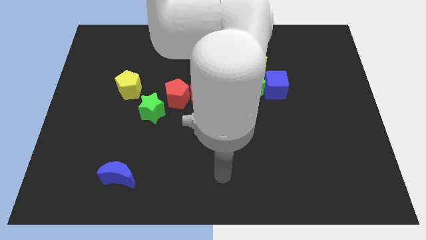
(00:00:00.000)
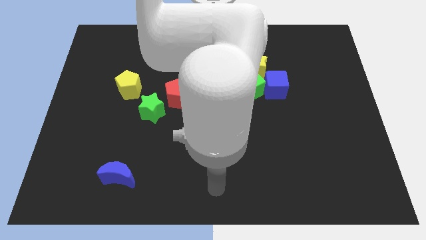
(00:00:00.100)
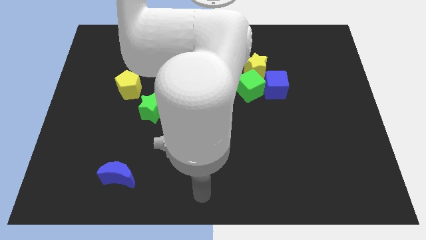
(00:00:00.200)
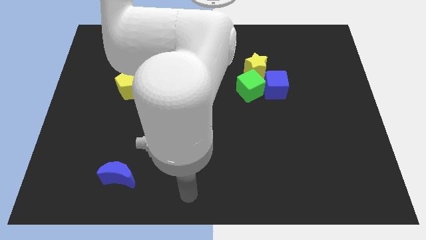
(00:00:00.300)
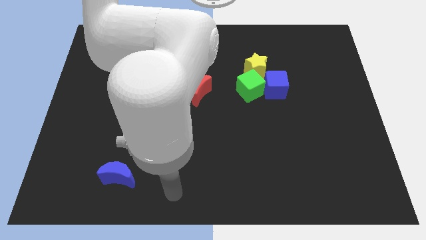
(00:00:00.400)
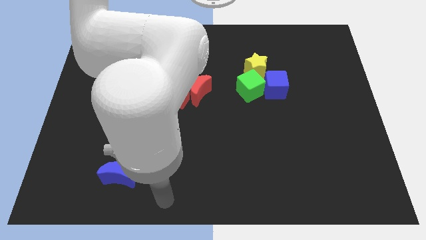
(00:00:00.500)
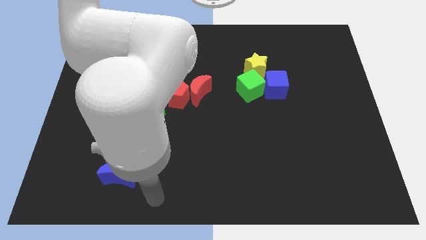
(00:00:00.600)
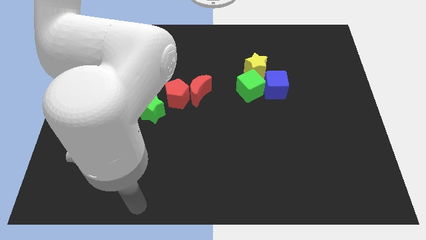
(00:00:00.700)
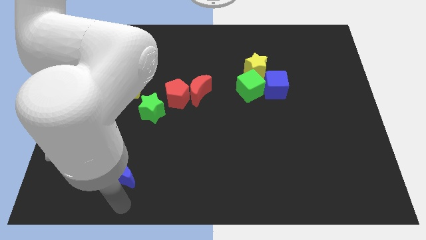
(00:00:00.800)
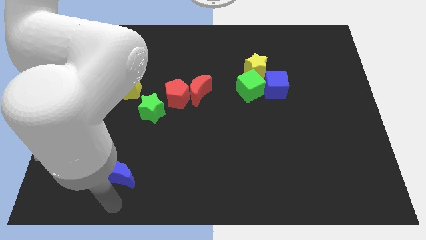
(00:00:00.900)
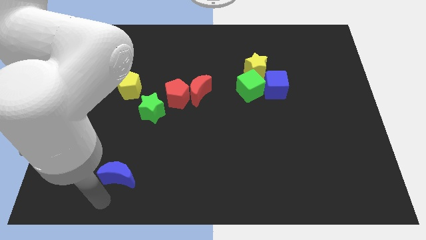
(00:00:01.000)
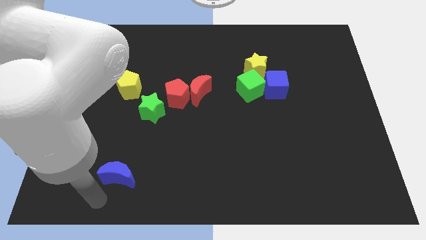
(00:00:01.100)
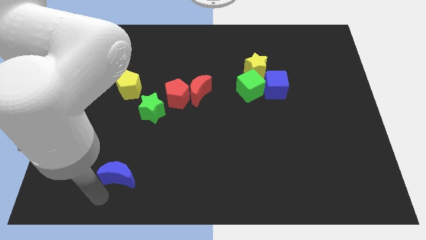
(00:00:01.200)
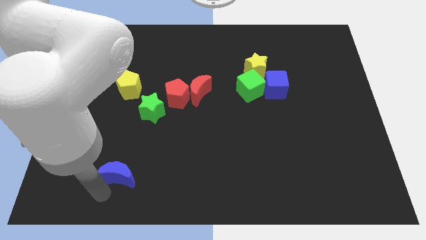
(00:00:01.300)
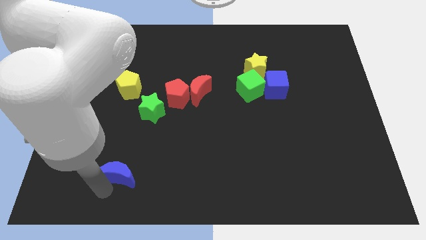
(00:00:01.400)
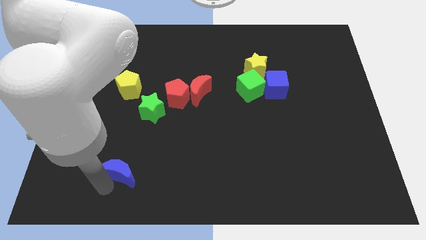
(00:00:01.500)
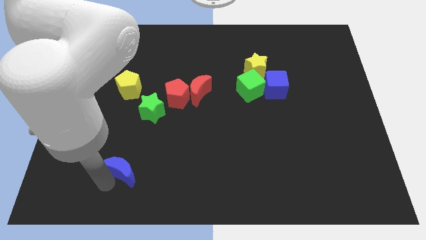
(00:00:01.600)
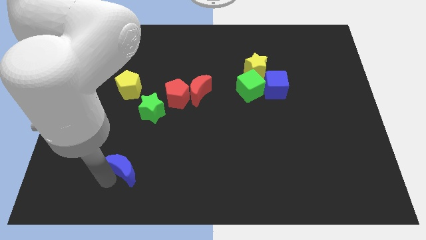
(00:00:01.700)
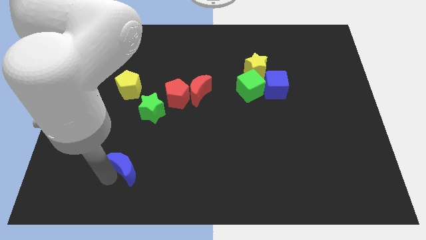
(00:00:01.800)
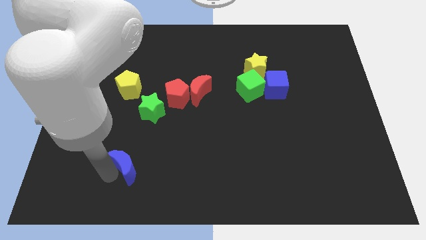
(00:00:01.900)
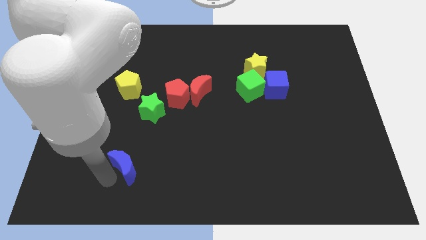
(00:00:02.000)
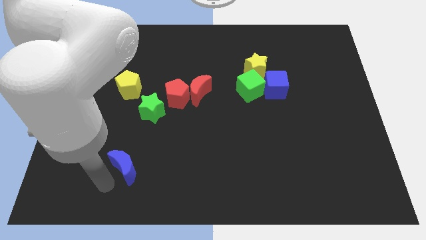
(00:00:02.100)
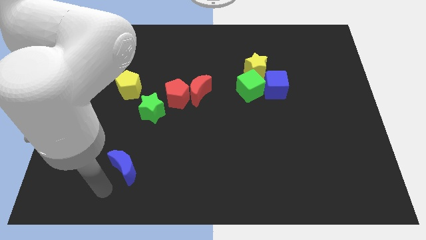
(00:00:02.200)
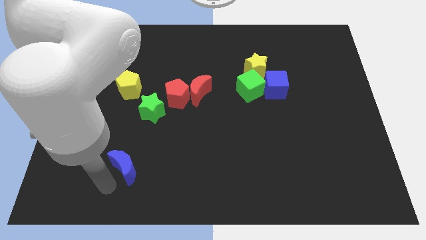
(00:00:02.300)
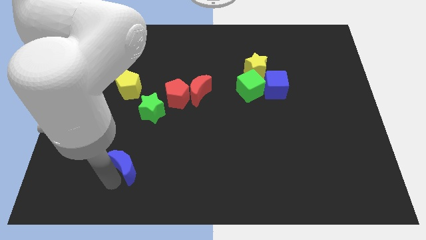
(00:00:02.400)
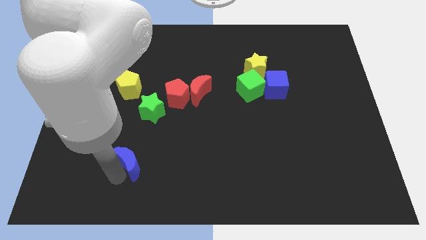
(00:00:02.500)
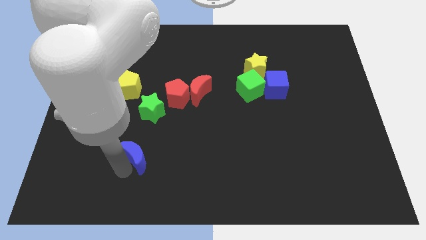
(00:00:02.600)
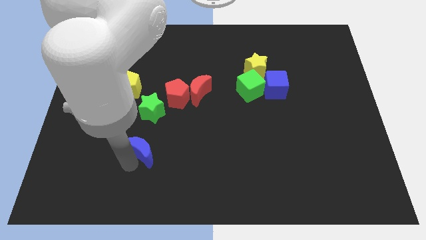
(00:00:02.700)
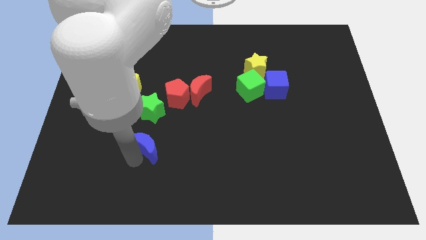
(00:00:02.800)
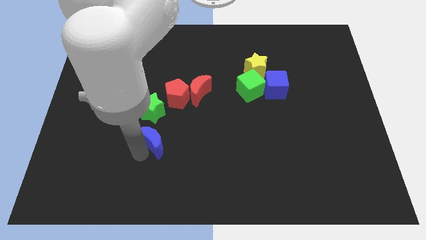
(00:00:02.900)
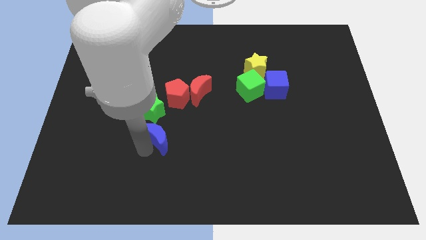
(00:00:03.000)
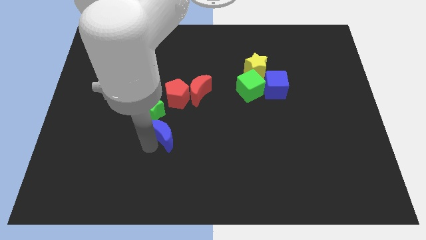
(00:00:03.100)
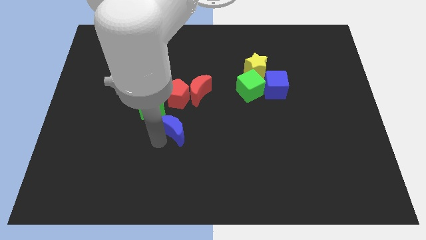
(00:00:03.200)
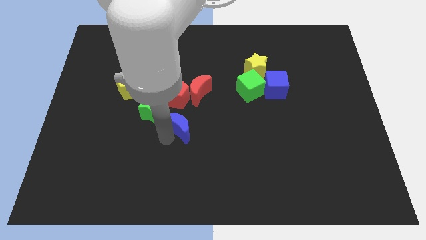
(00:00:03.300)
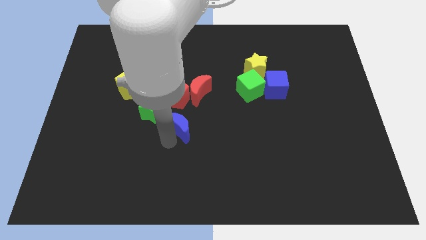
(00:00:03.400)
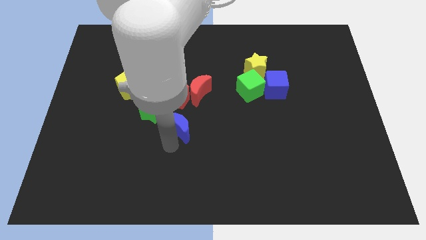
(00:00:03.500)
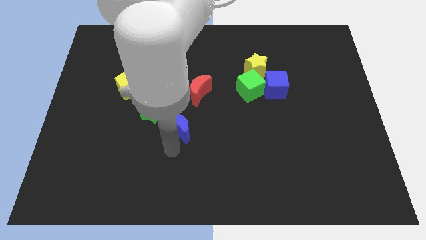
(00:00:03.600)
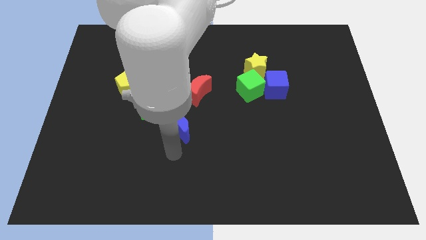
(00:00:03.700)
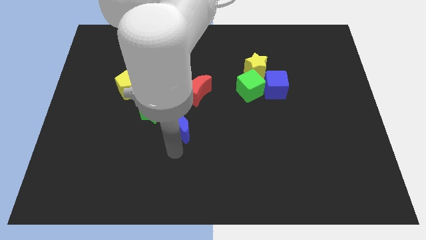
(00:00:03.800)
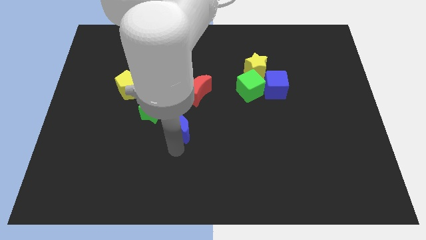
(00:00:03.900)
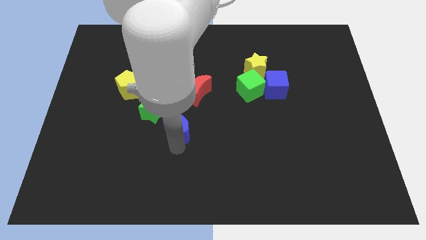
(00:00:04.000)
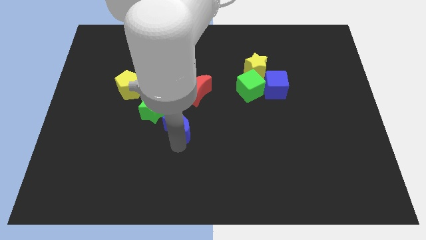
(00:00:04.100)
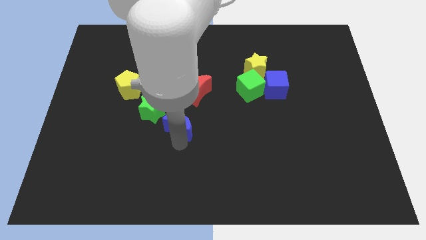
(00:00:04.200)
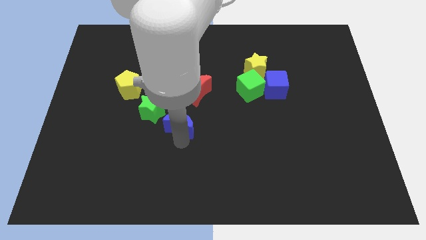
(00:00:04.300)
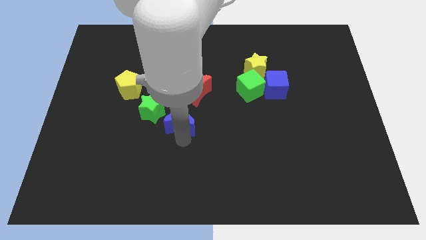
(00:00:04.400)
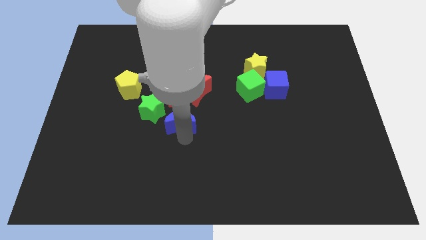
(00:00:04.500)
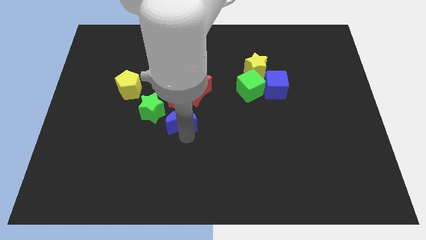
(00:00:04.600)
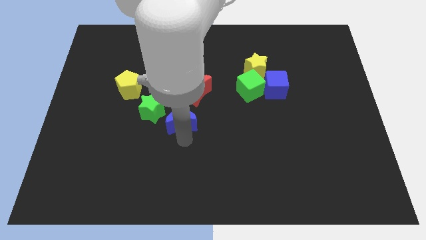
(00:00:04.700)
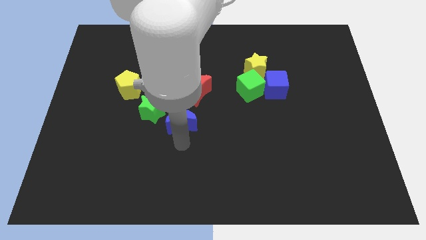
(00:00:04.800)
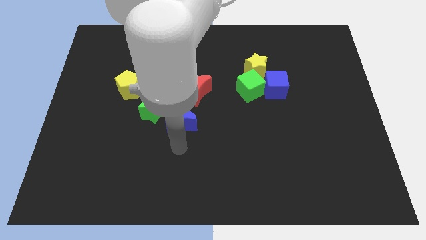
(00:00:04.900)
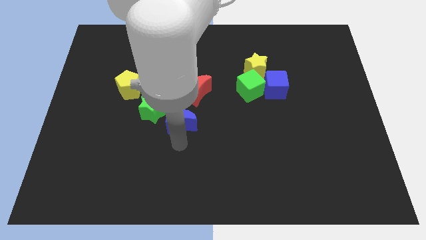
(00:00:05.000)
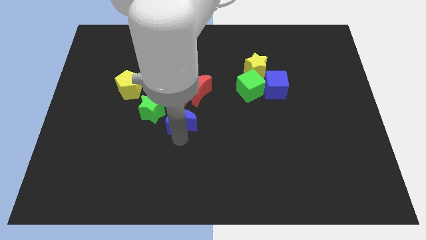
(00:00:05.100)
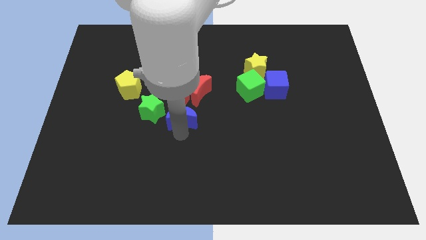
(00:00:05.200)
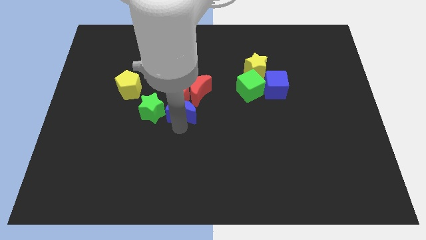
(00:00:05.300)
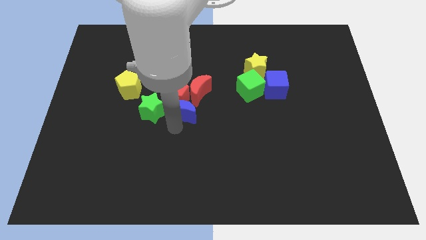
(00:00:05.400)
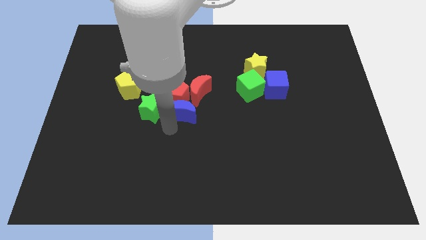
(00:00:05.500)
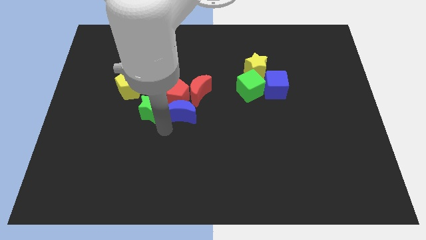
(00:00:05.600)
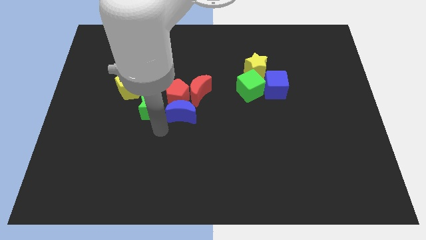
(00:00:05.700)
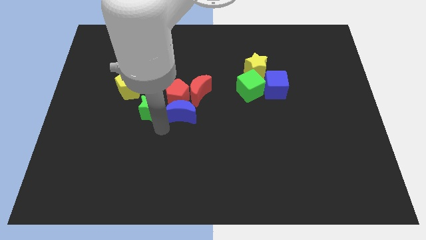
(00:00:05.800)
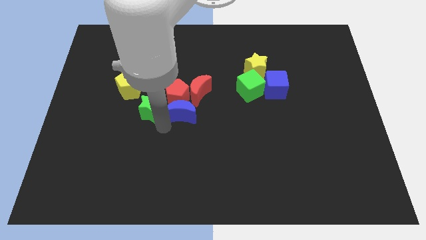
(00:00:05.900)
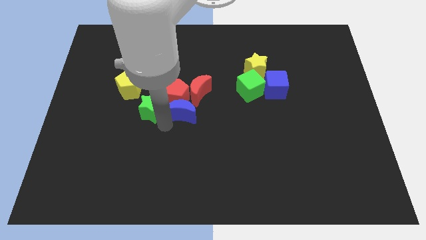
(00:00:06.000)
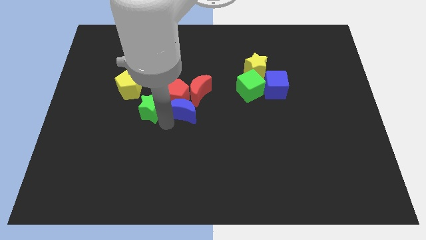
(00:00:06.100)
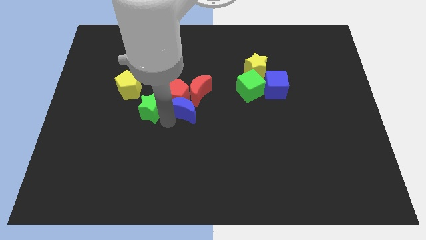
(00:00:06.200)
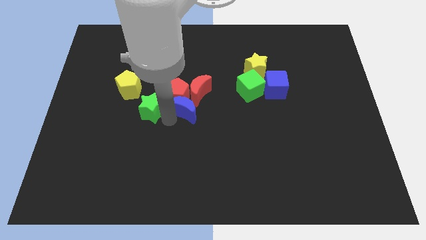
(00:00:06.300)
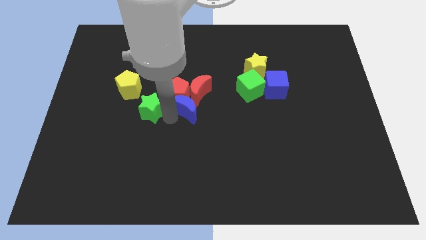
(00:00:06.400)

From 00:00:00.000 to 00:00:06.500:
put the blue moon next to the red moon

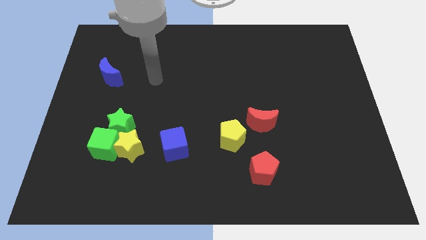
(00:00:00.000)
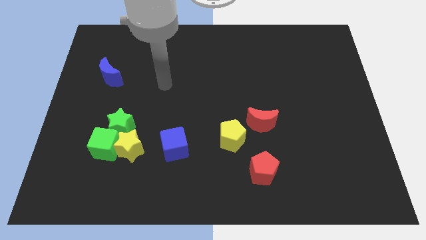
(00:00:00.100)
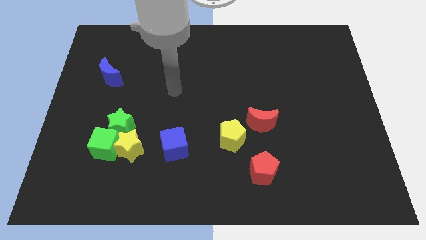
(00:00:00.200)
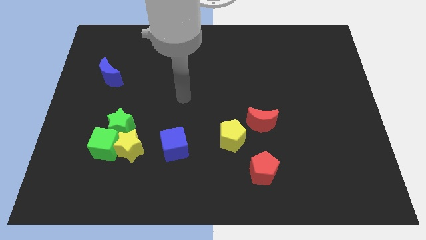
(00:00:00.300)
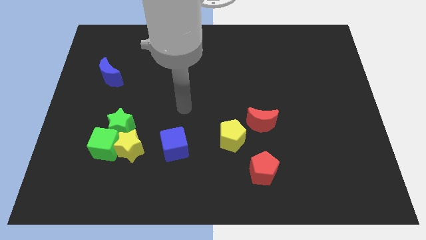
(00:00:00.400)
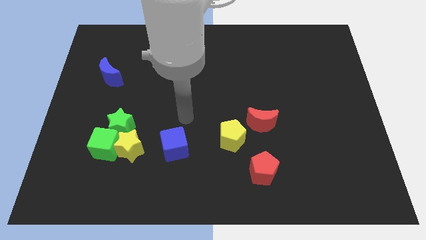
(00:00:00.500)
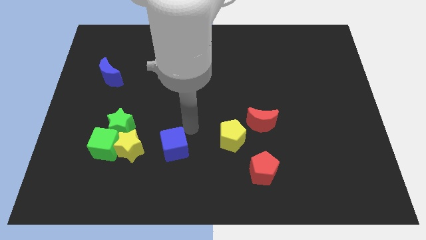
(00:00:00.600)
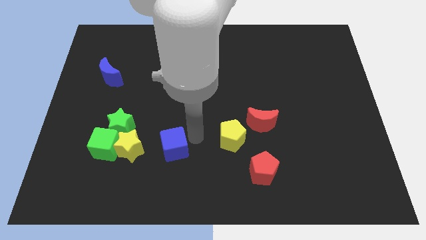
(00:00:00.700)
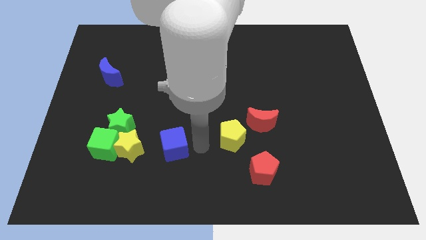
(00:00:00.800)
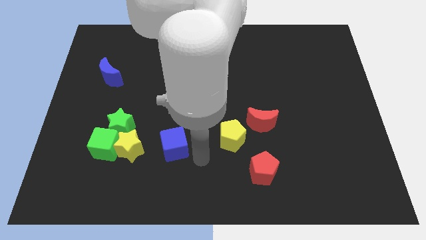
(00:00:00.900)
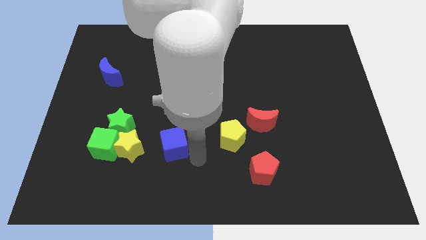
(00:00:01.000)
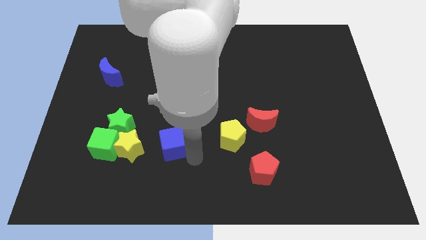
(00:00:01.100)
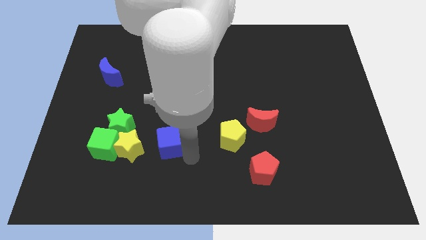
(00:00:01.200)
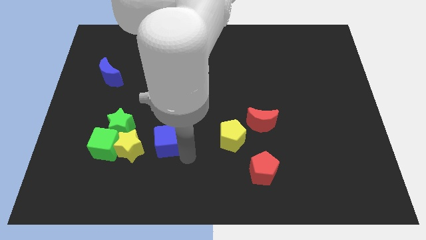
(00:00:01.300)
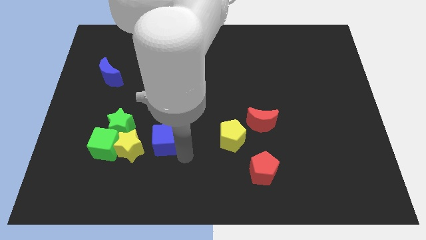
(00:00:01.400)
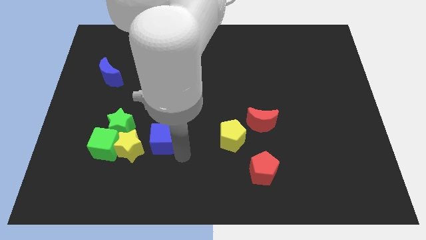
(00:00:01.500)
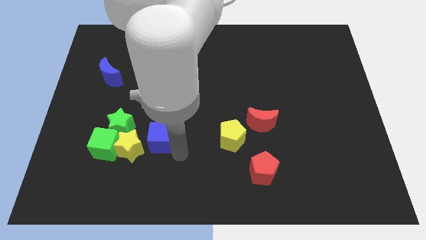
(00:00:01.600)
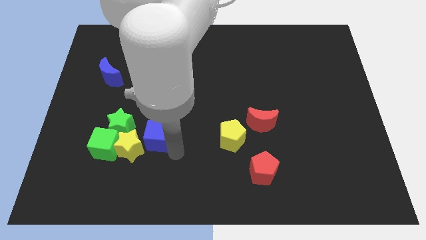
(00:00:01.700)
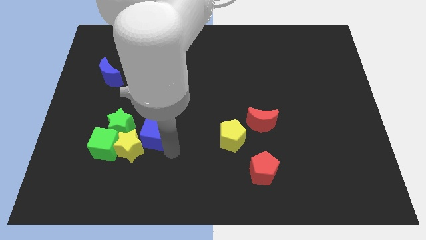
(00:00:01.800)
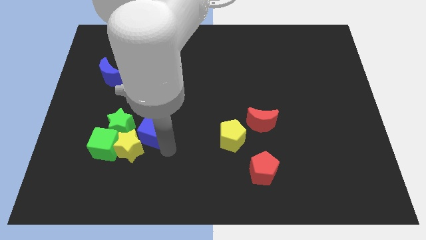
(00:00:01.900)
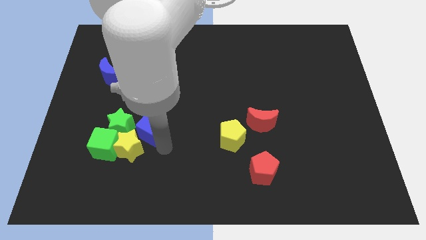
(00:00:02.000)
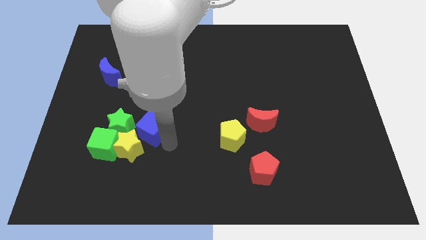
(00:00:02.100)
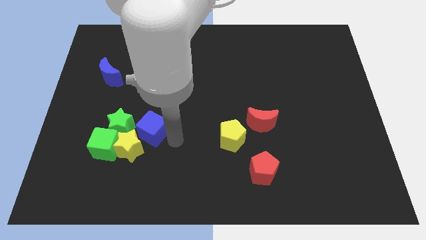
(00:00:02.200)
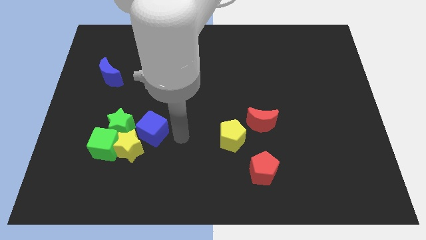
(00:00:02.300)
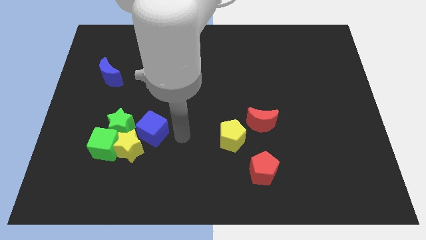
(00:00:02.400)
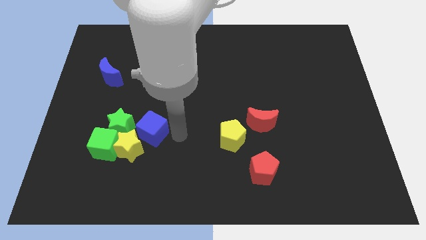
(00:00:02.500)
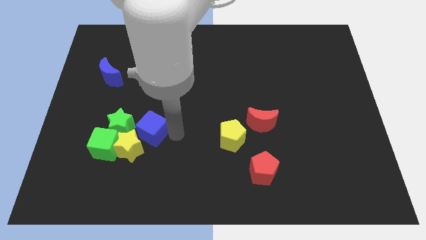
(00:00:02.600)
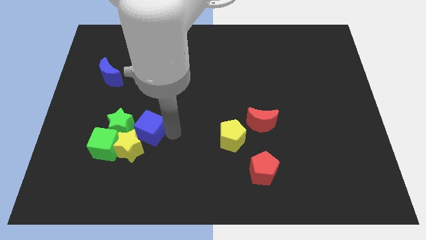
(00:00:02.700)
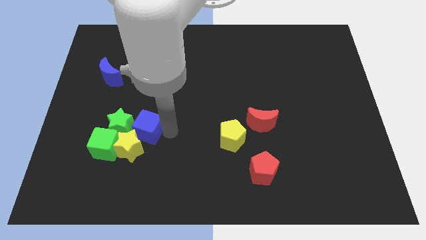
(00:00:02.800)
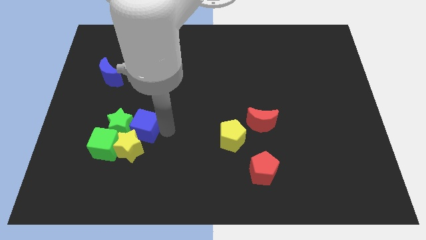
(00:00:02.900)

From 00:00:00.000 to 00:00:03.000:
slide the blue cube to the green star
